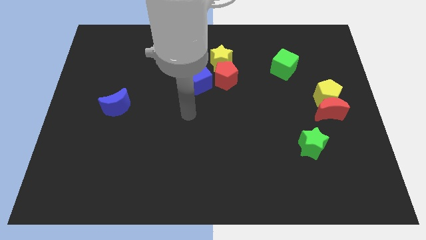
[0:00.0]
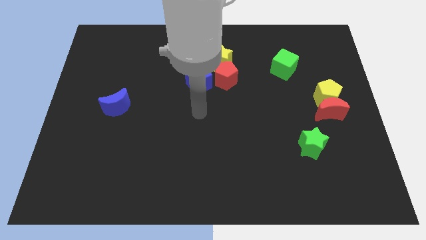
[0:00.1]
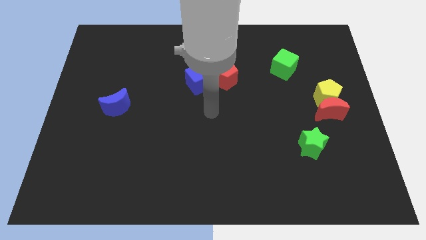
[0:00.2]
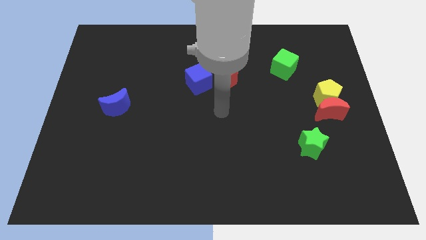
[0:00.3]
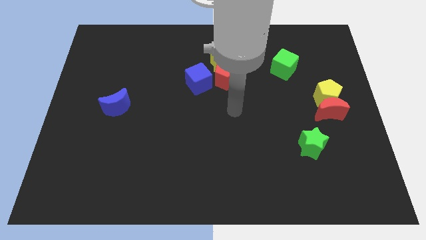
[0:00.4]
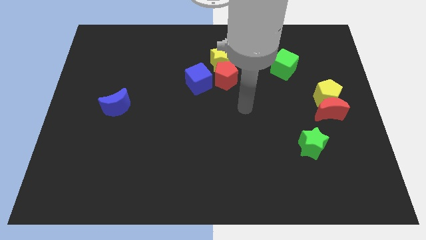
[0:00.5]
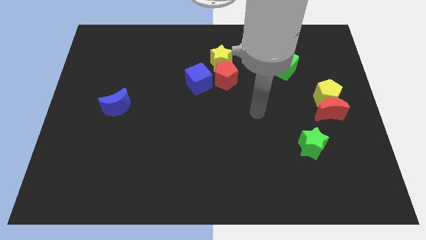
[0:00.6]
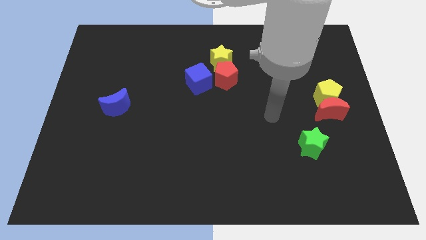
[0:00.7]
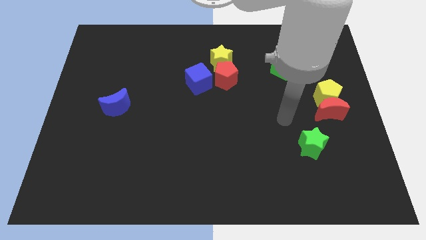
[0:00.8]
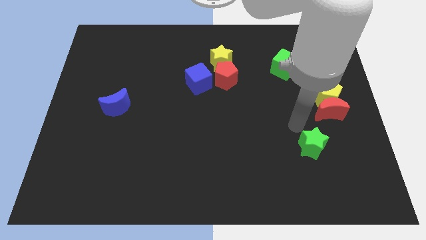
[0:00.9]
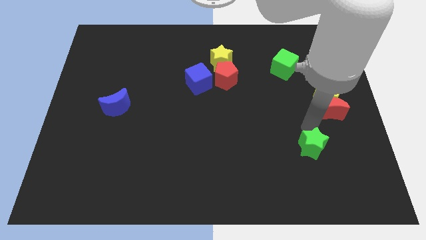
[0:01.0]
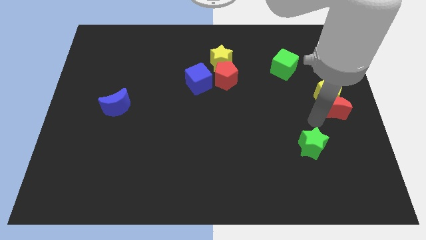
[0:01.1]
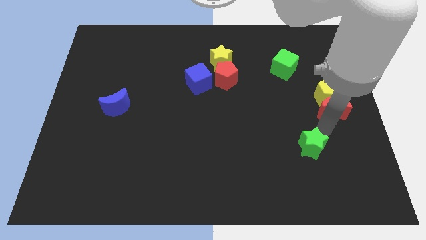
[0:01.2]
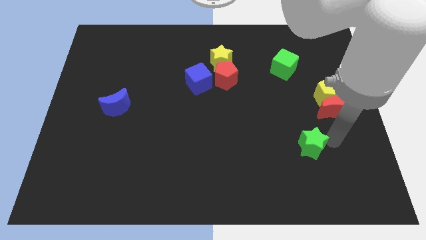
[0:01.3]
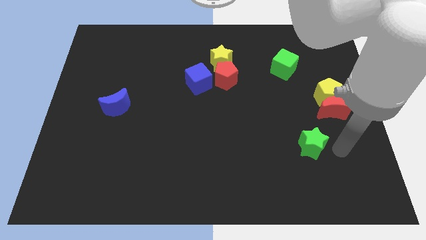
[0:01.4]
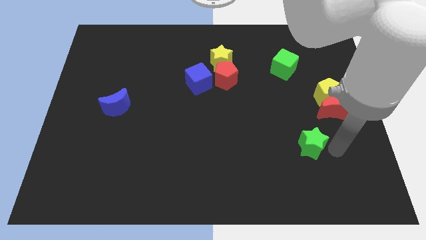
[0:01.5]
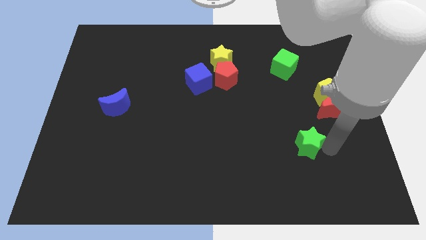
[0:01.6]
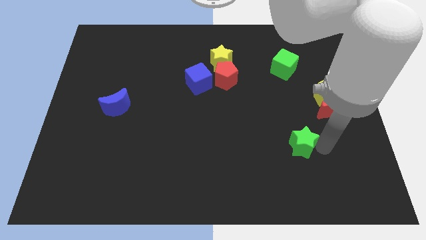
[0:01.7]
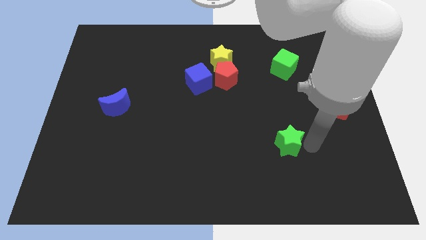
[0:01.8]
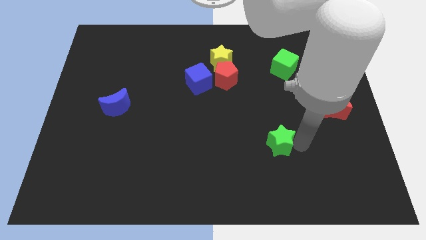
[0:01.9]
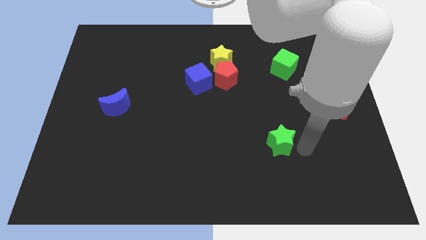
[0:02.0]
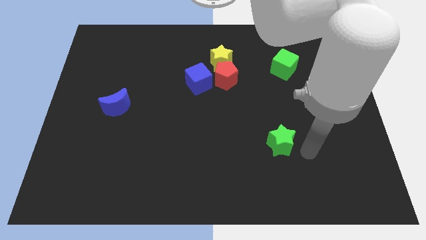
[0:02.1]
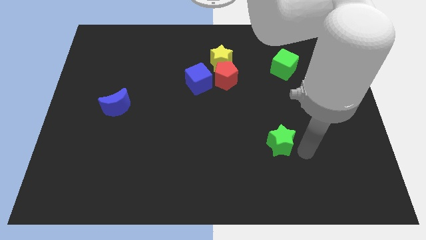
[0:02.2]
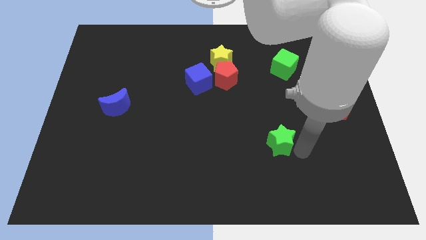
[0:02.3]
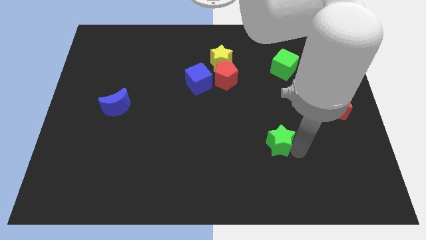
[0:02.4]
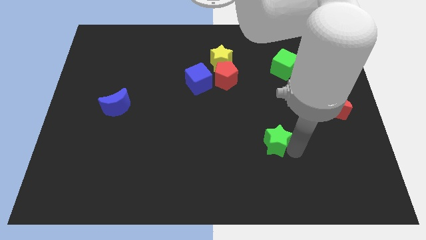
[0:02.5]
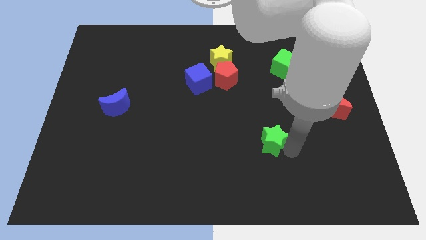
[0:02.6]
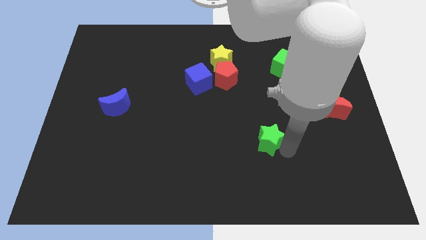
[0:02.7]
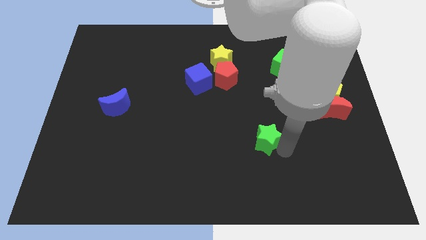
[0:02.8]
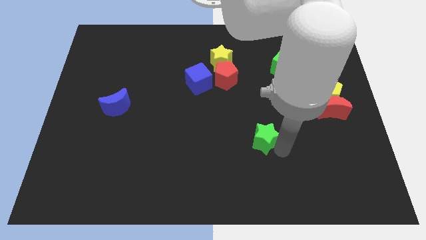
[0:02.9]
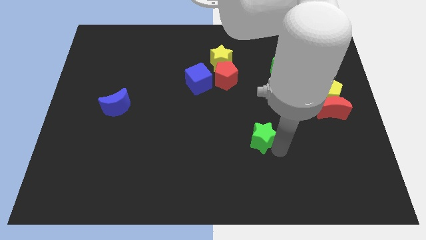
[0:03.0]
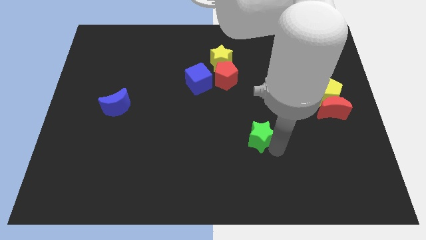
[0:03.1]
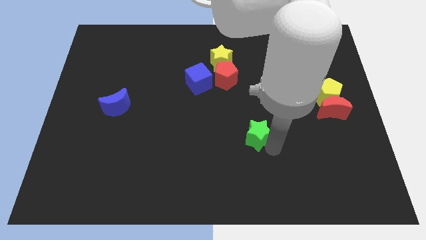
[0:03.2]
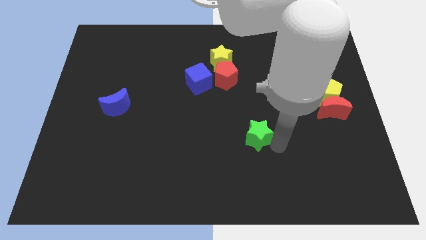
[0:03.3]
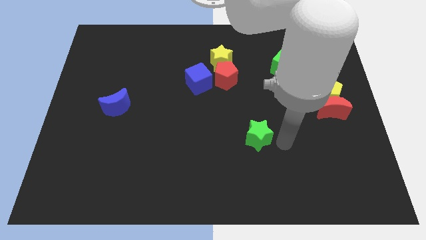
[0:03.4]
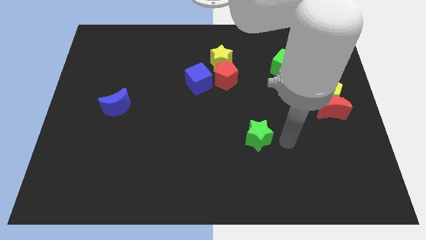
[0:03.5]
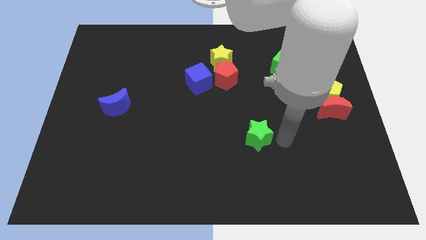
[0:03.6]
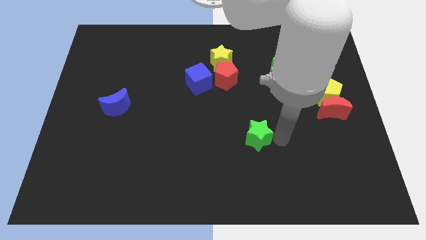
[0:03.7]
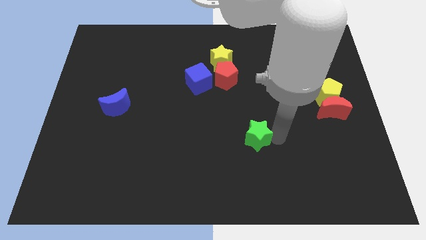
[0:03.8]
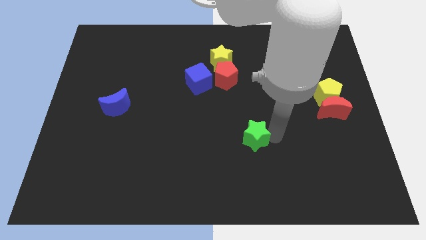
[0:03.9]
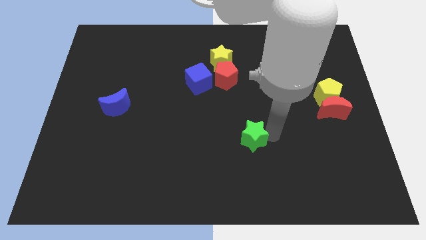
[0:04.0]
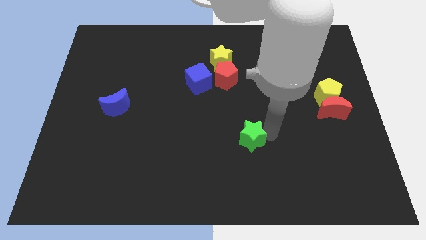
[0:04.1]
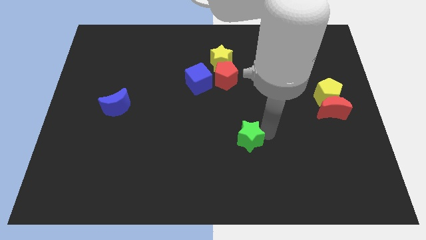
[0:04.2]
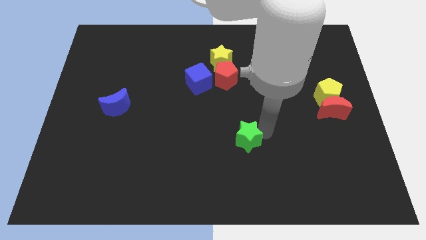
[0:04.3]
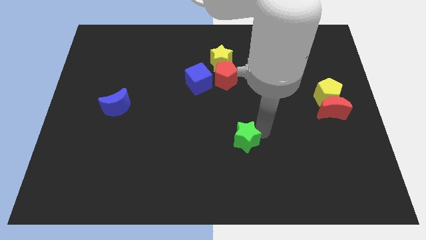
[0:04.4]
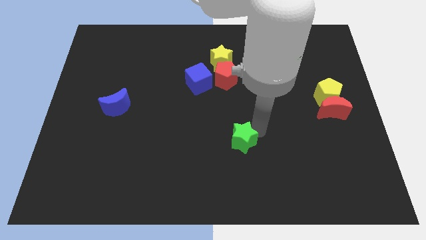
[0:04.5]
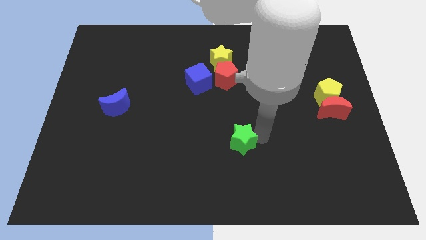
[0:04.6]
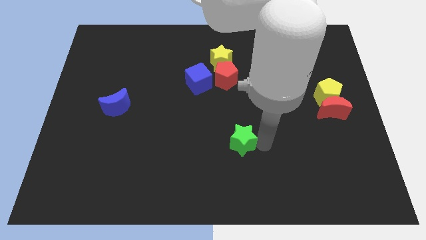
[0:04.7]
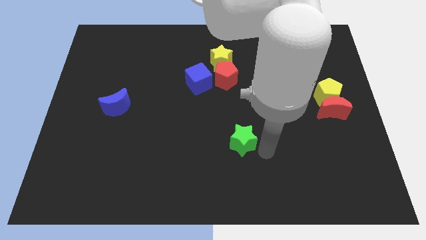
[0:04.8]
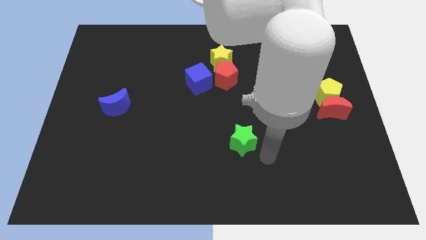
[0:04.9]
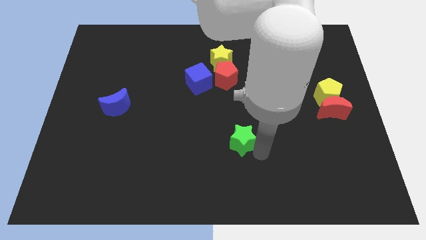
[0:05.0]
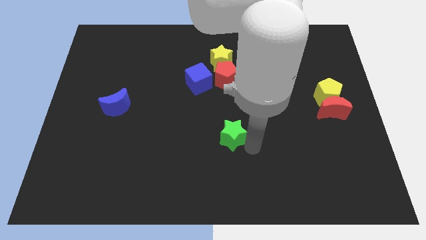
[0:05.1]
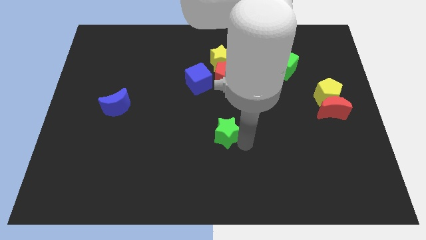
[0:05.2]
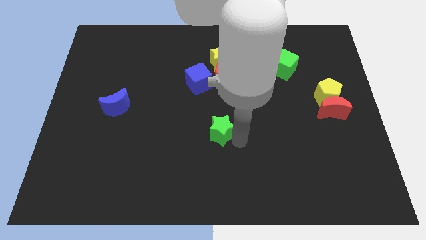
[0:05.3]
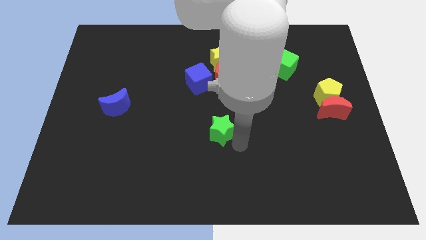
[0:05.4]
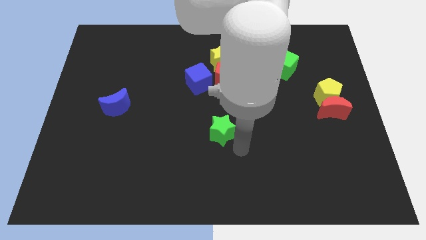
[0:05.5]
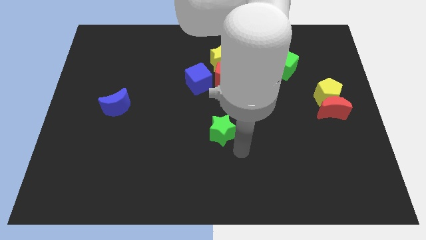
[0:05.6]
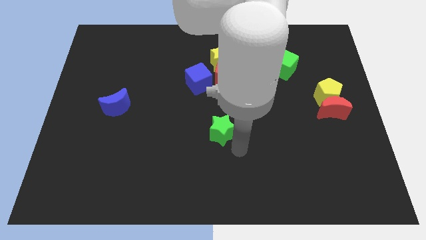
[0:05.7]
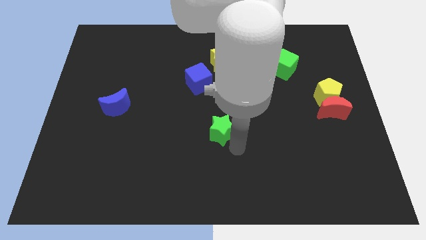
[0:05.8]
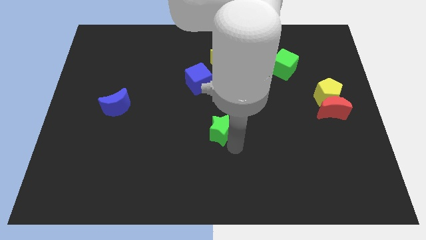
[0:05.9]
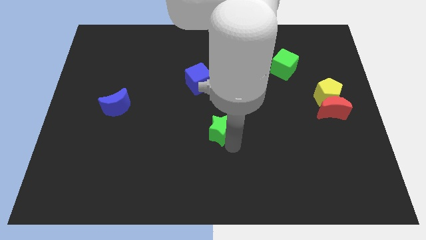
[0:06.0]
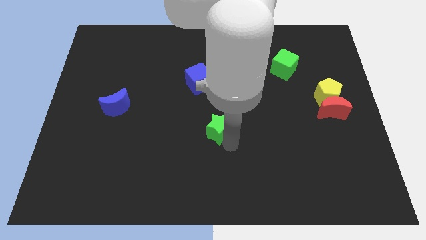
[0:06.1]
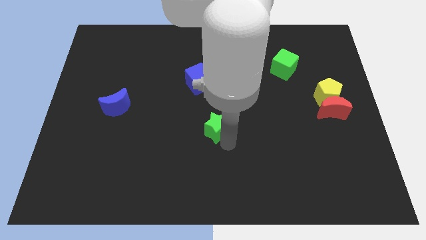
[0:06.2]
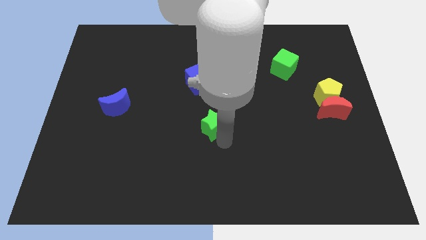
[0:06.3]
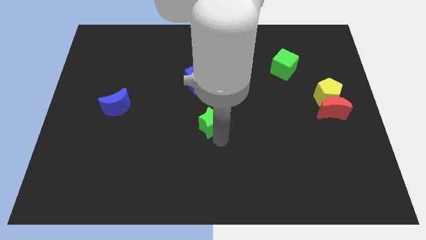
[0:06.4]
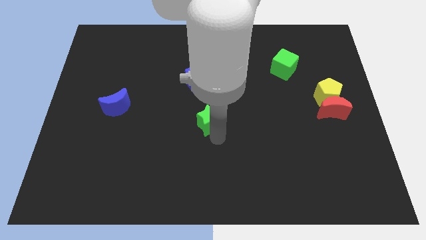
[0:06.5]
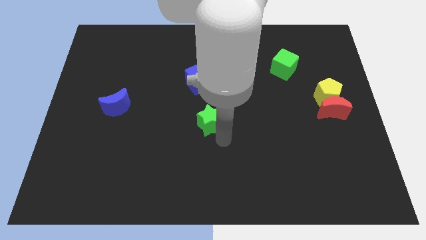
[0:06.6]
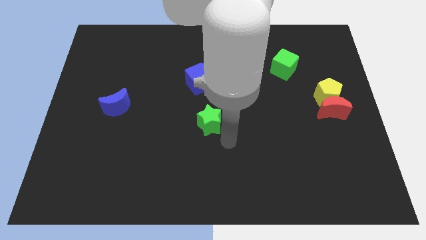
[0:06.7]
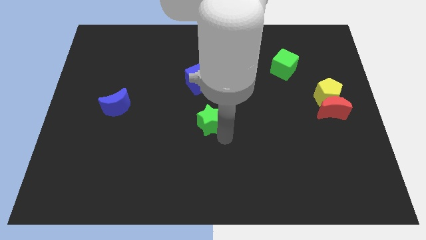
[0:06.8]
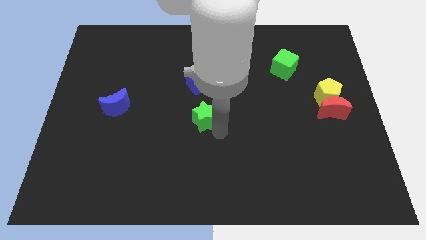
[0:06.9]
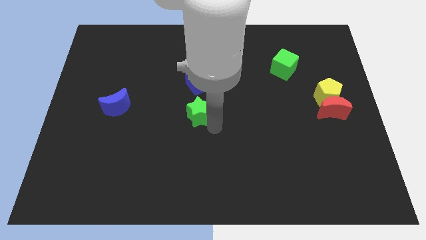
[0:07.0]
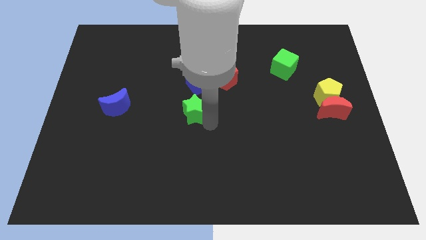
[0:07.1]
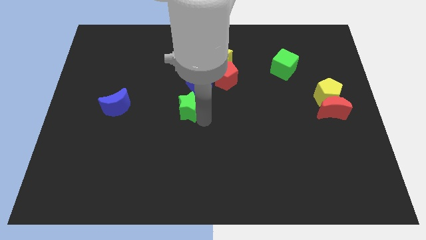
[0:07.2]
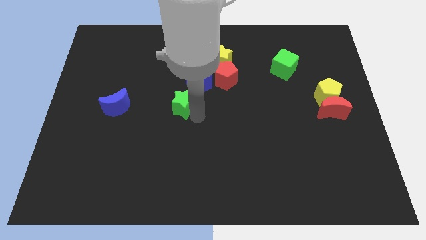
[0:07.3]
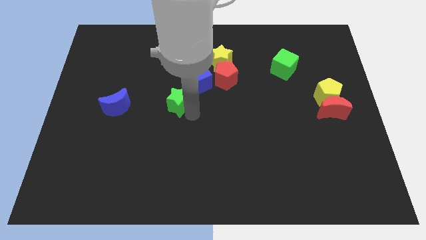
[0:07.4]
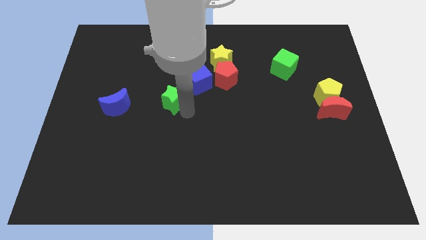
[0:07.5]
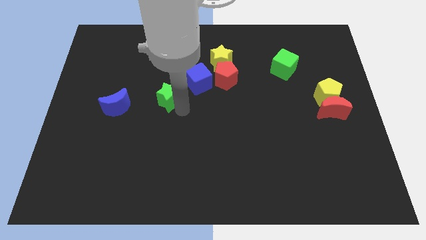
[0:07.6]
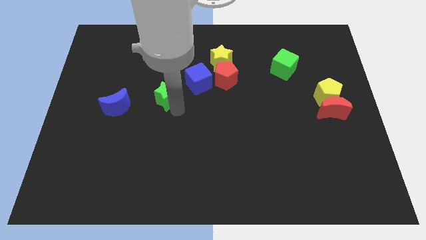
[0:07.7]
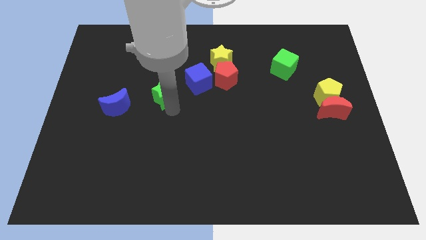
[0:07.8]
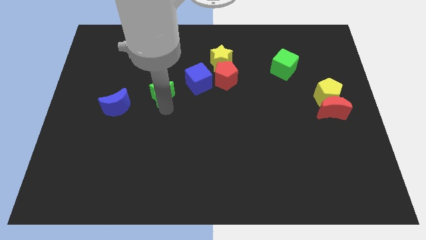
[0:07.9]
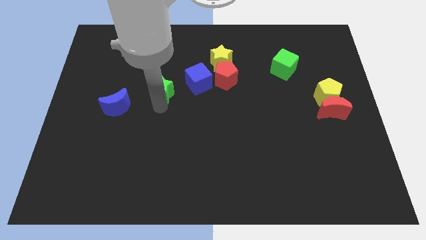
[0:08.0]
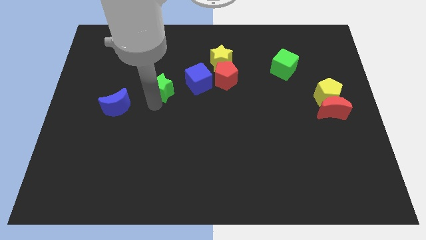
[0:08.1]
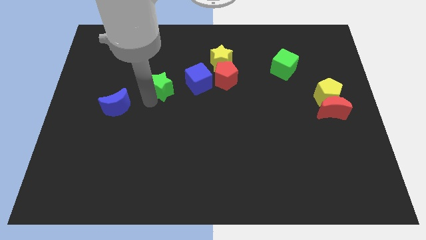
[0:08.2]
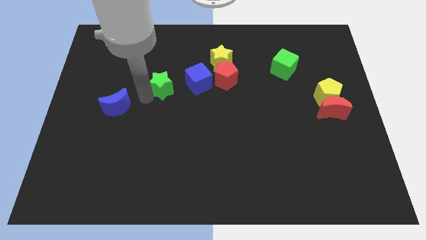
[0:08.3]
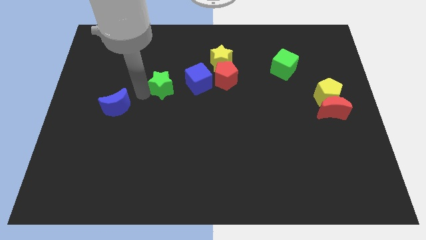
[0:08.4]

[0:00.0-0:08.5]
slide the green star upwards and to the left diagonally
